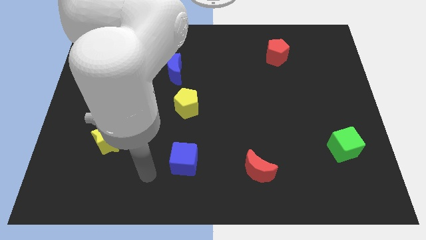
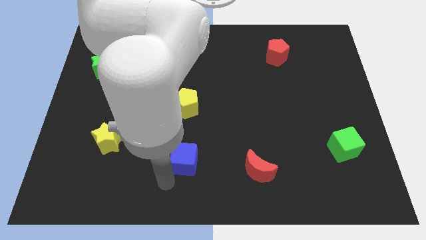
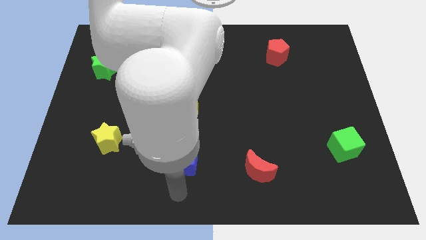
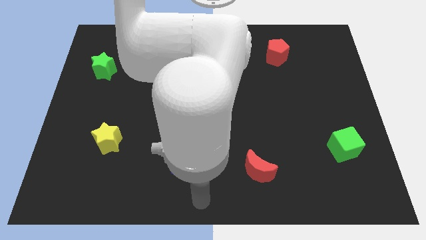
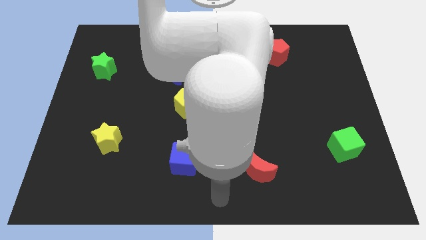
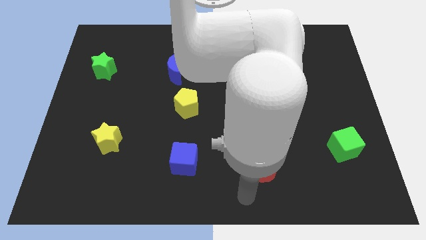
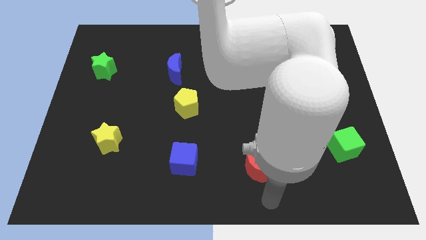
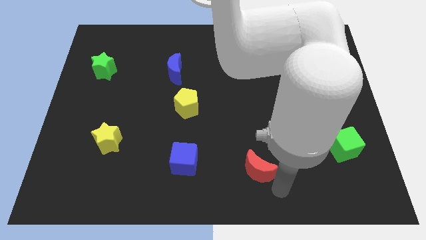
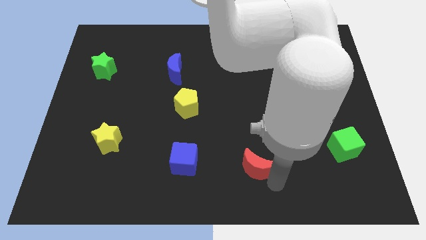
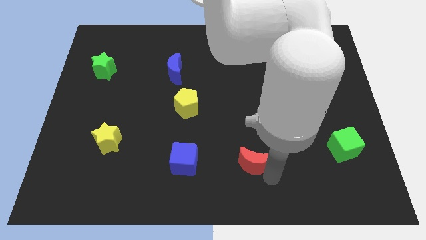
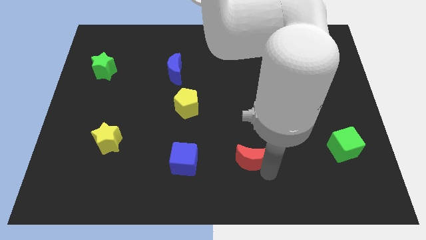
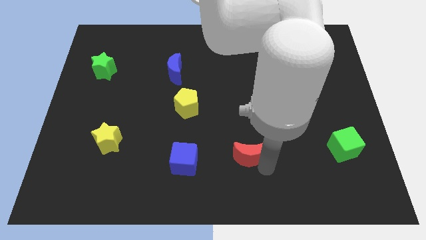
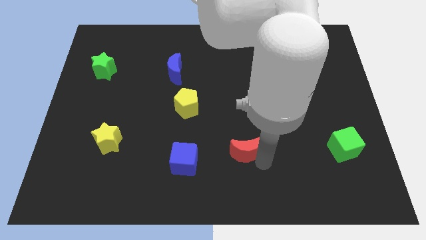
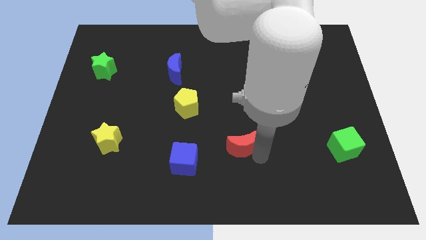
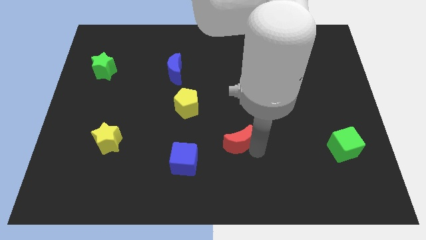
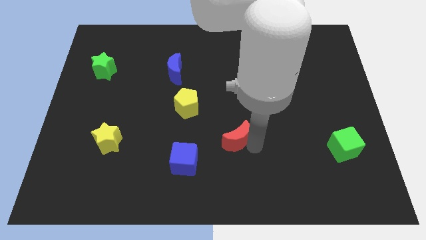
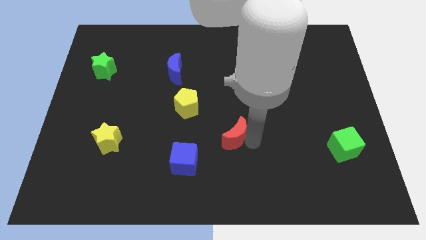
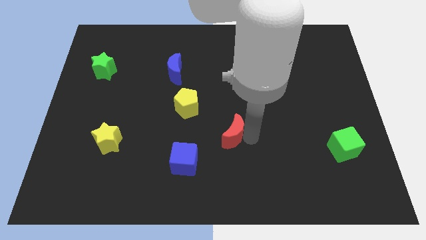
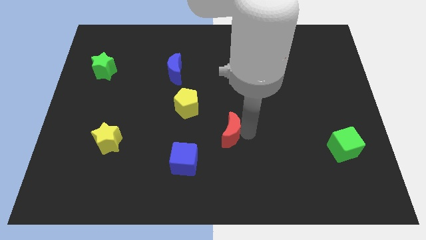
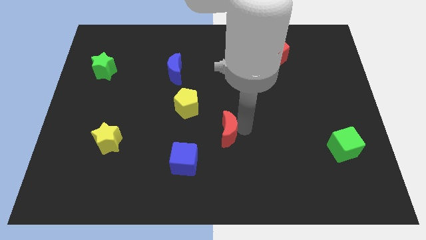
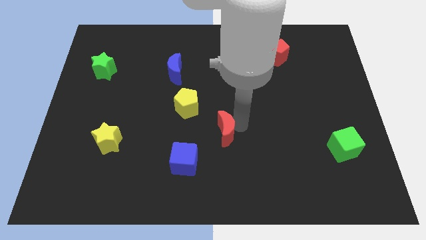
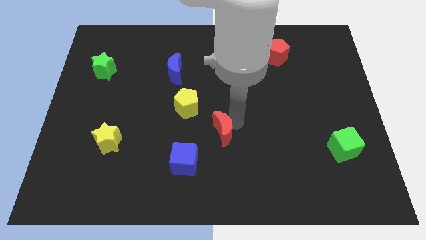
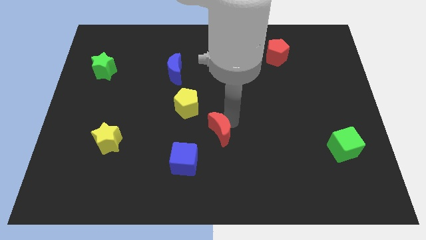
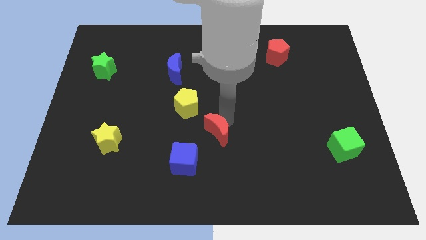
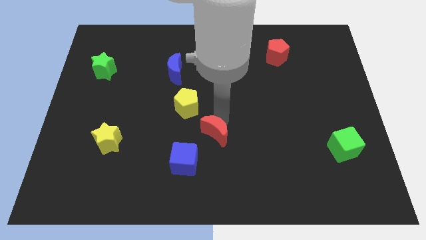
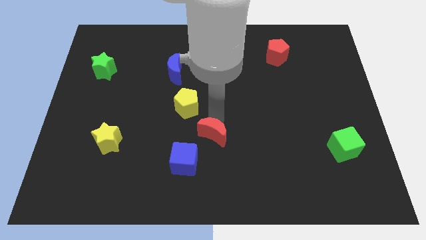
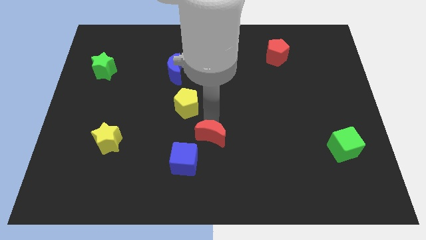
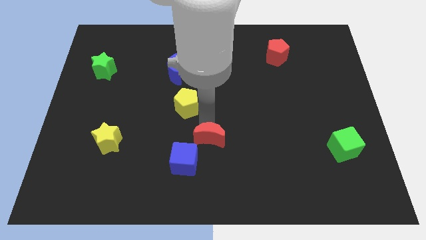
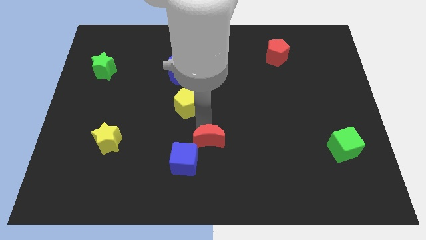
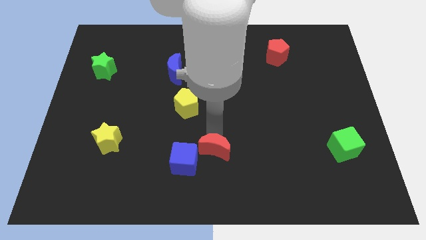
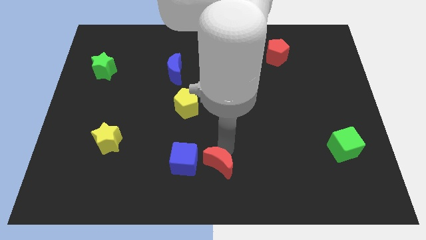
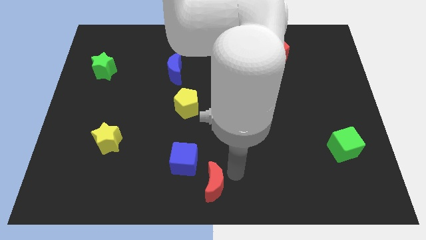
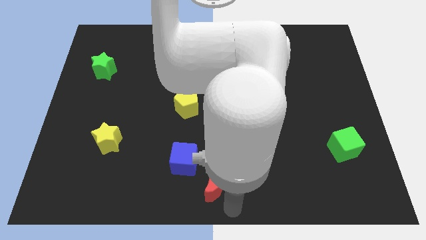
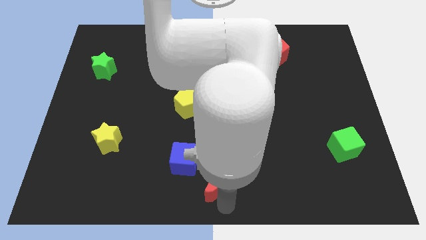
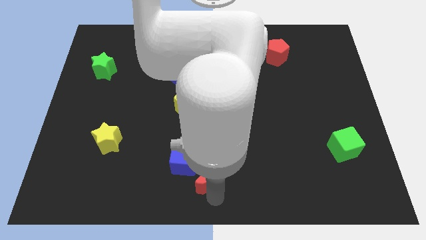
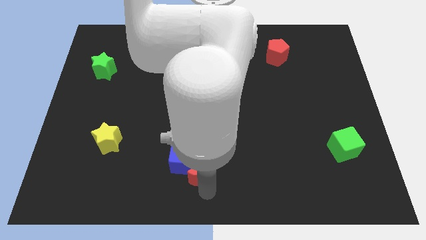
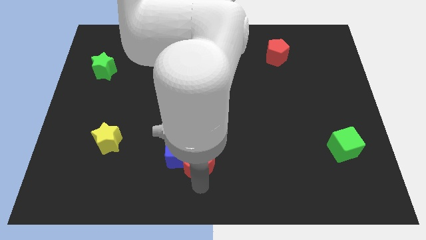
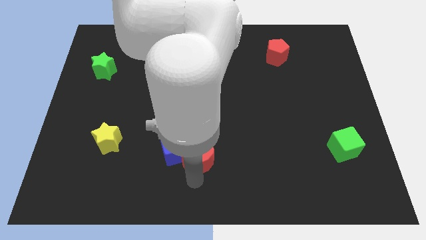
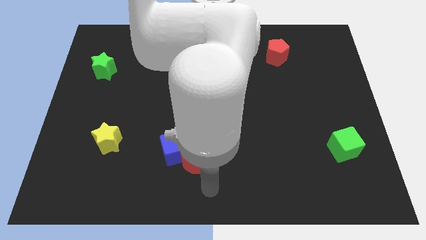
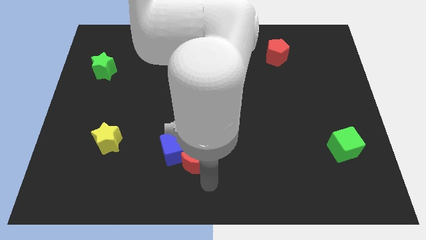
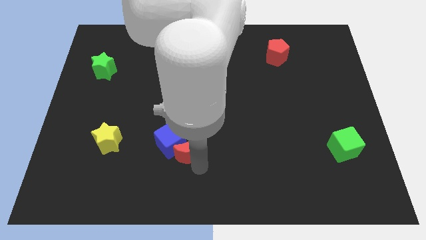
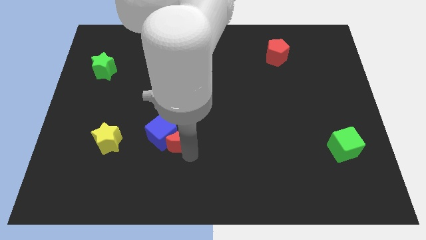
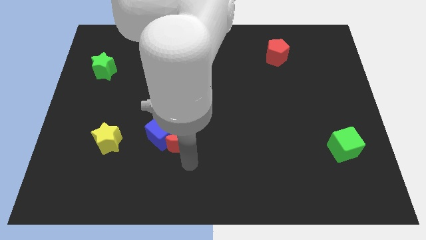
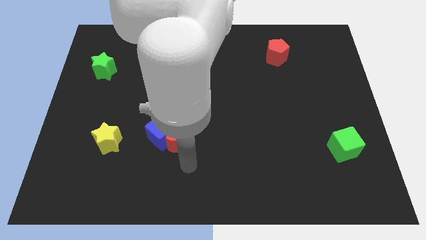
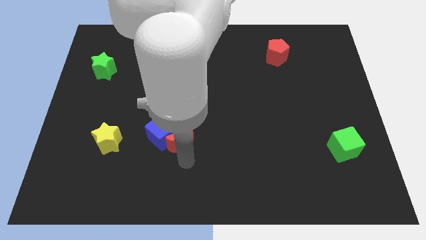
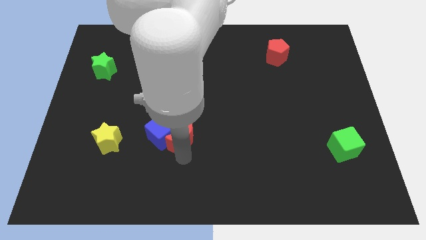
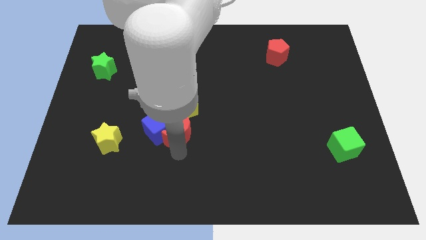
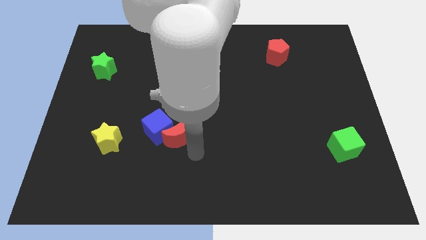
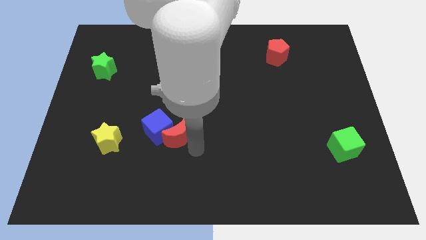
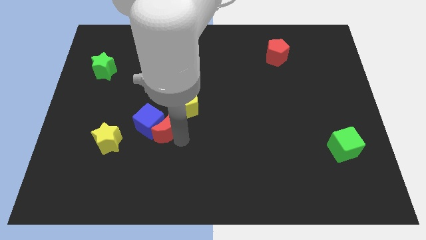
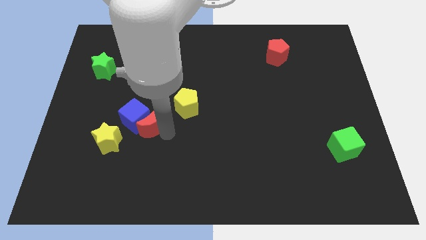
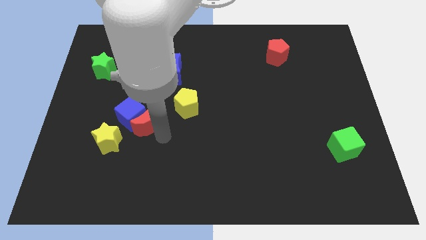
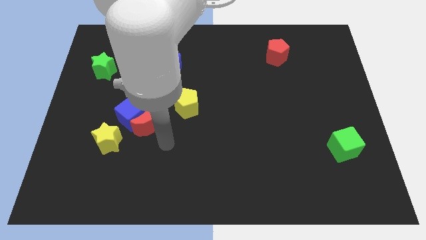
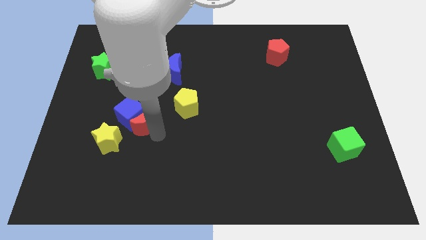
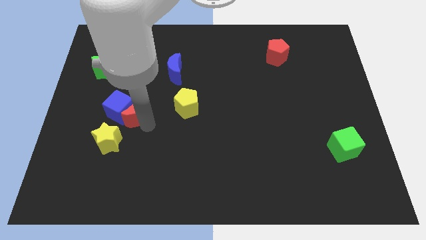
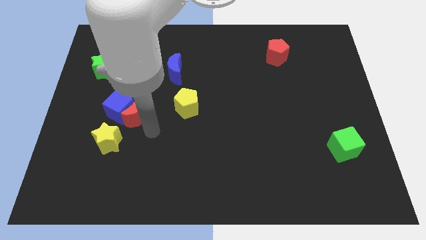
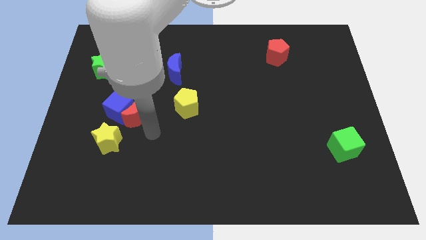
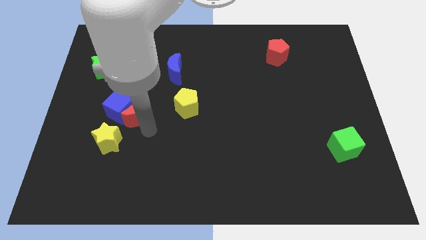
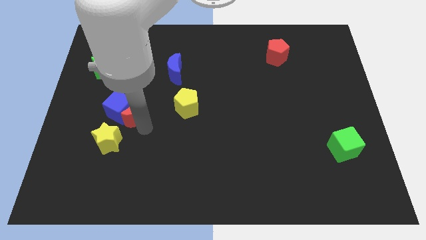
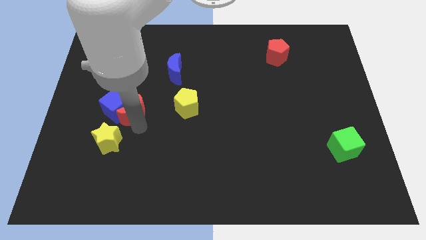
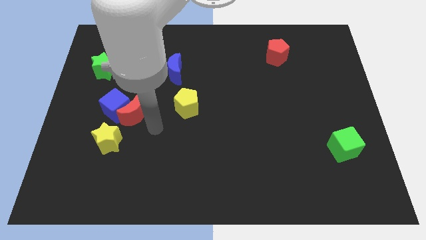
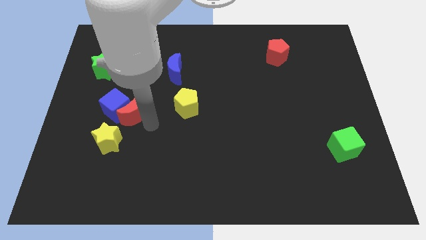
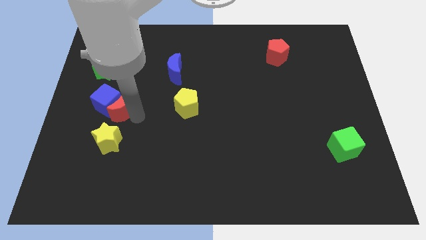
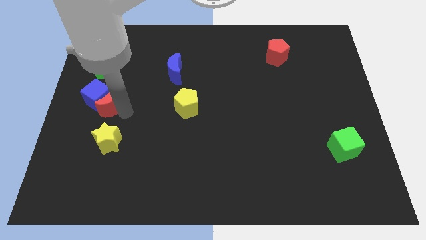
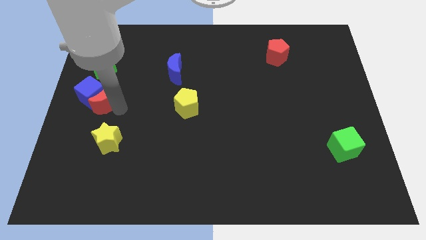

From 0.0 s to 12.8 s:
put the red moon to the left side of the board
